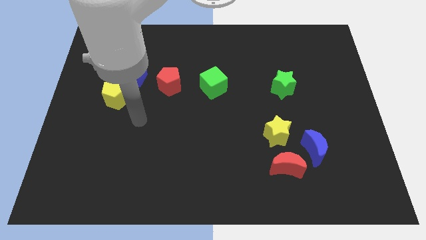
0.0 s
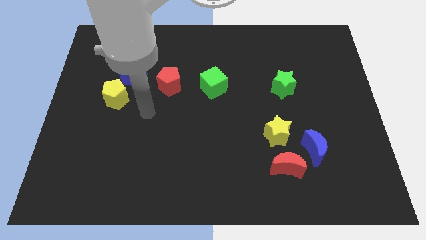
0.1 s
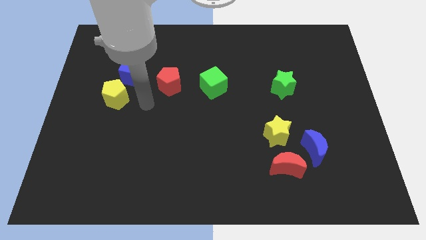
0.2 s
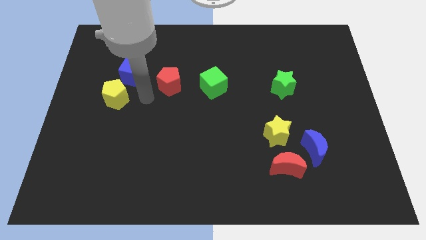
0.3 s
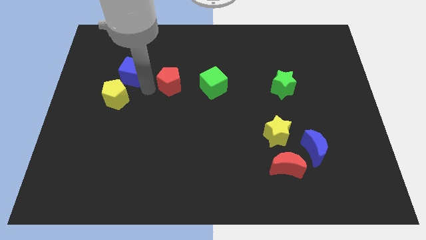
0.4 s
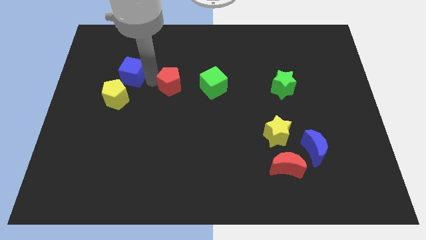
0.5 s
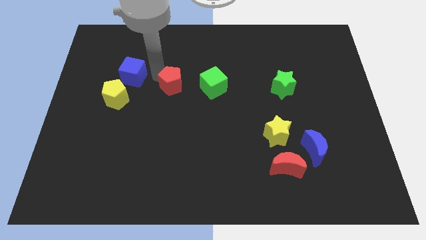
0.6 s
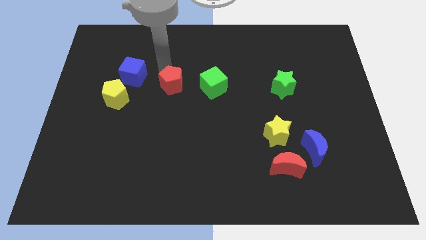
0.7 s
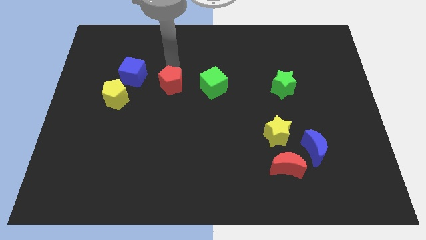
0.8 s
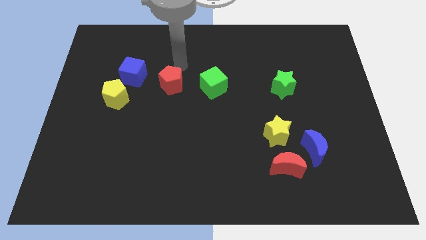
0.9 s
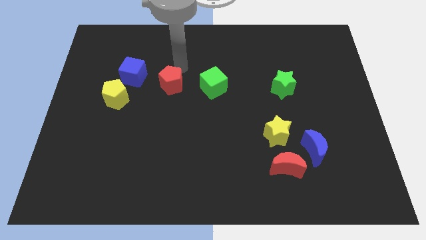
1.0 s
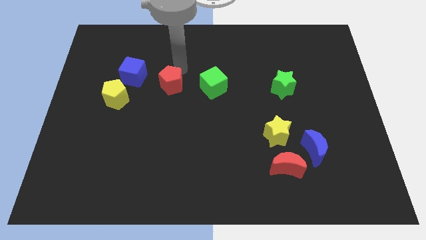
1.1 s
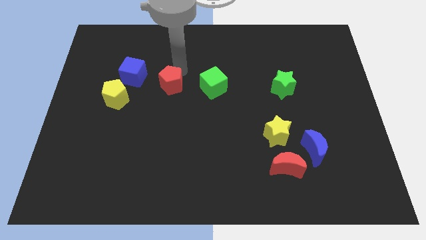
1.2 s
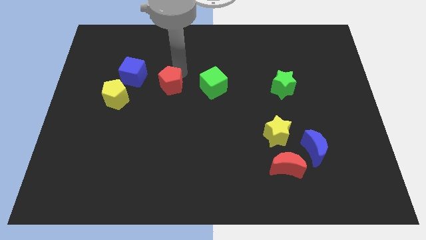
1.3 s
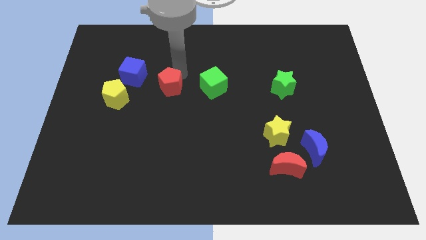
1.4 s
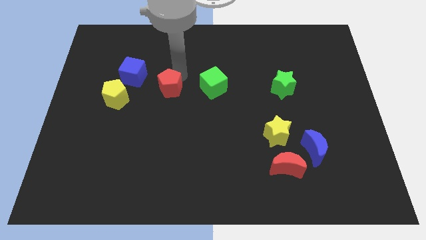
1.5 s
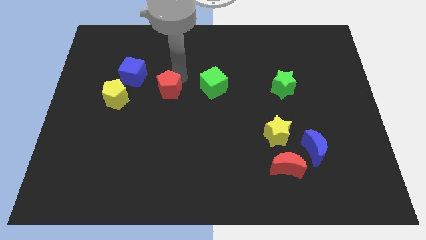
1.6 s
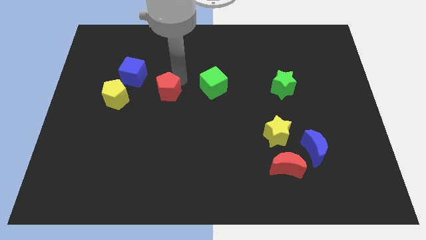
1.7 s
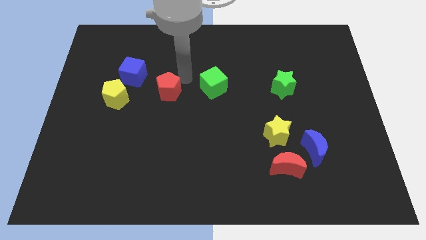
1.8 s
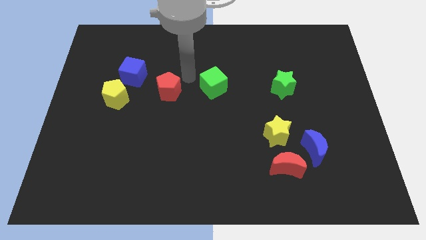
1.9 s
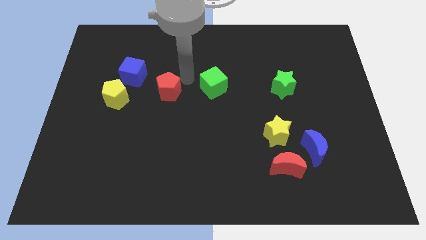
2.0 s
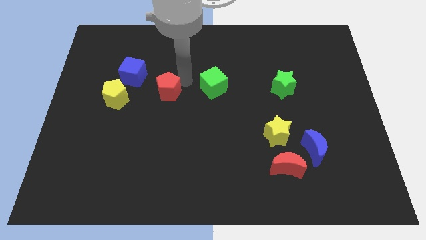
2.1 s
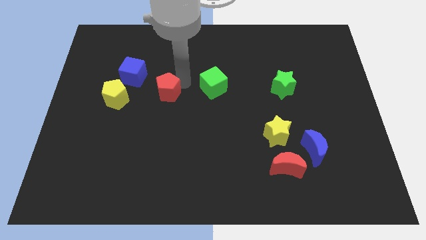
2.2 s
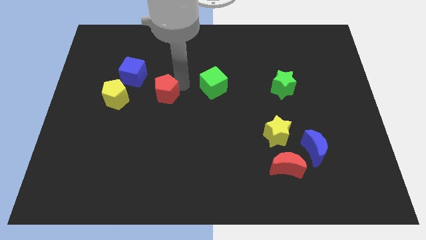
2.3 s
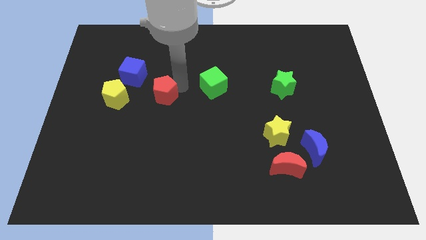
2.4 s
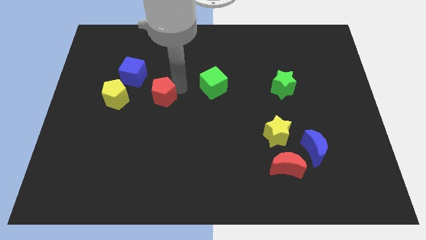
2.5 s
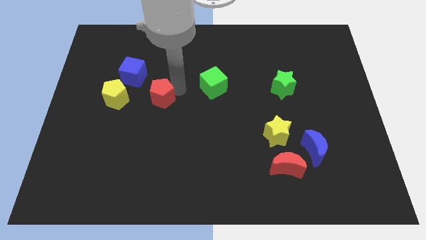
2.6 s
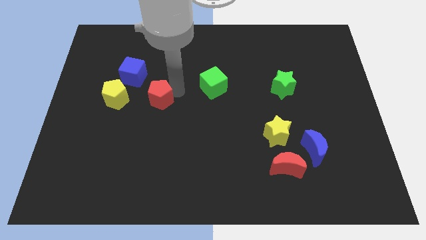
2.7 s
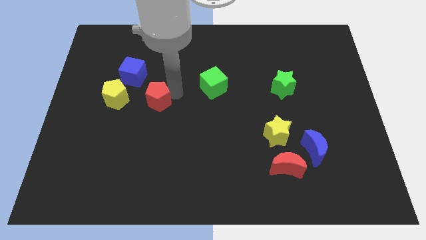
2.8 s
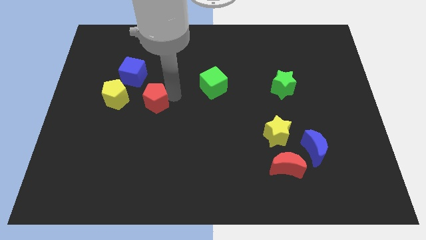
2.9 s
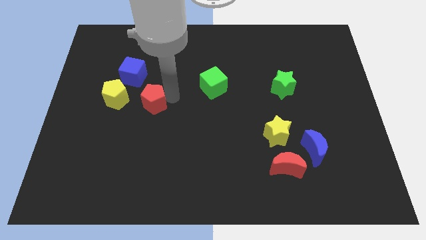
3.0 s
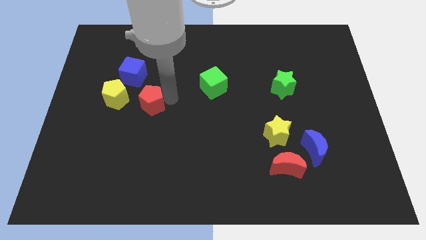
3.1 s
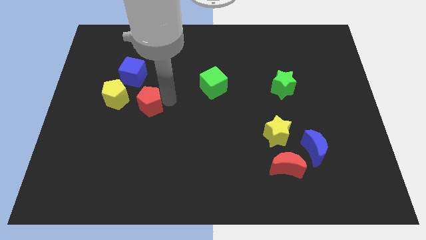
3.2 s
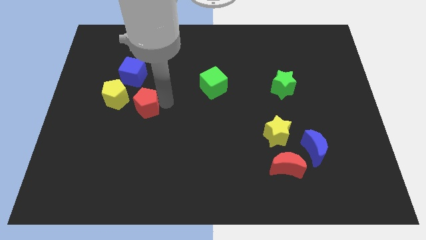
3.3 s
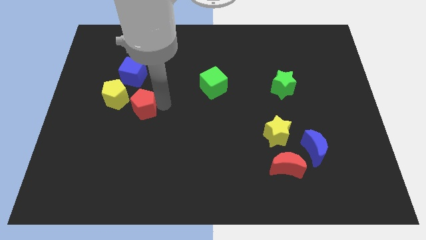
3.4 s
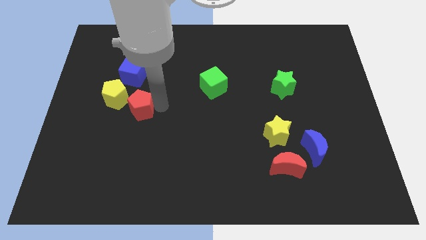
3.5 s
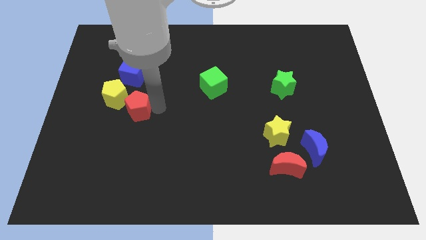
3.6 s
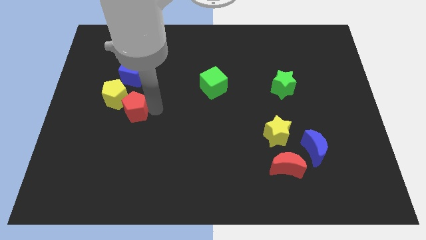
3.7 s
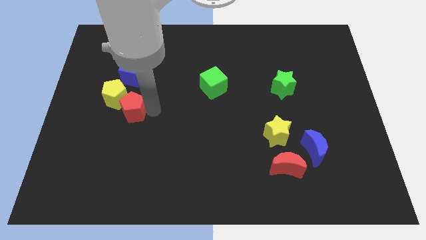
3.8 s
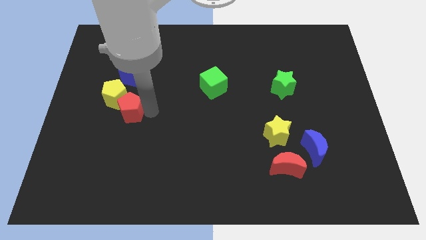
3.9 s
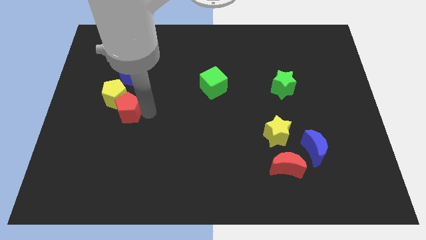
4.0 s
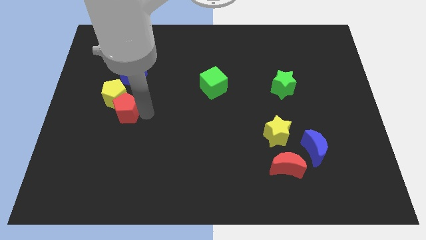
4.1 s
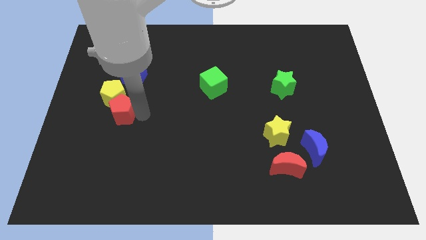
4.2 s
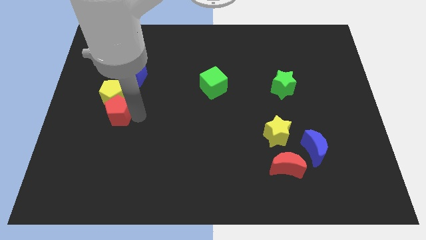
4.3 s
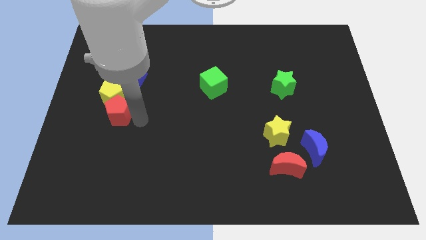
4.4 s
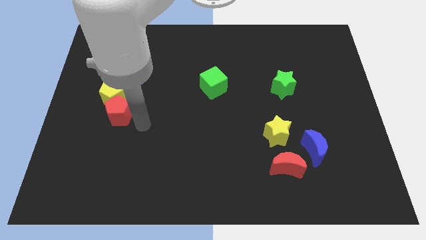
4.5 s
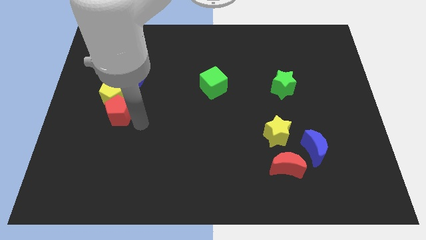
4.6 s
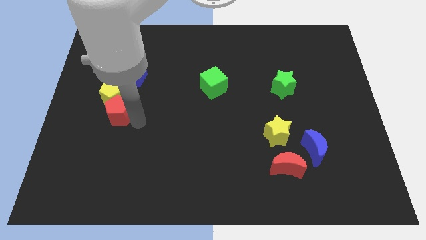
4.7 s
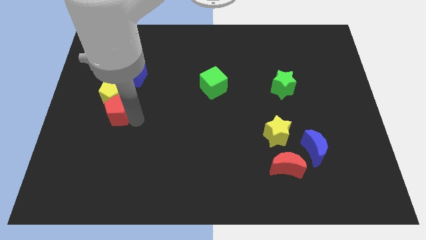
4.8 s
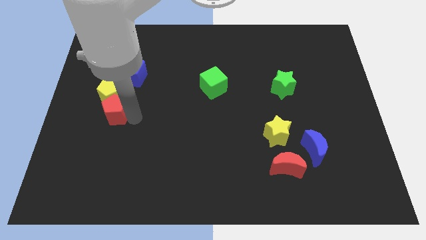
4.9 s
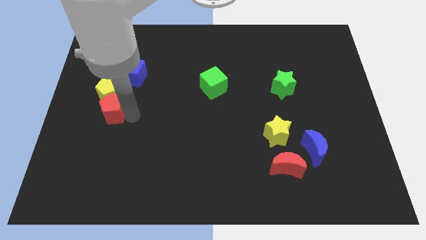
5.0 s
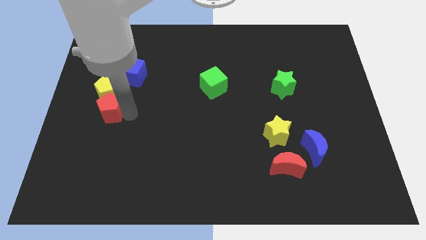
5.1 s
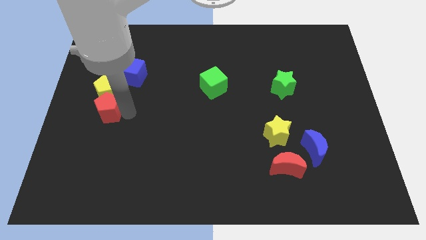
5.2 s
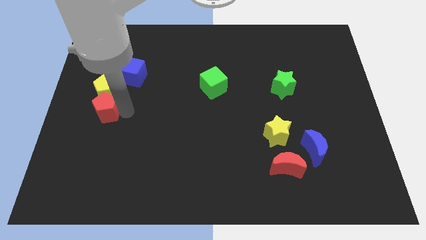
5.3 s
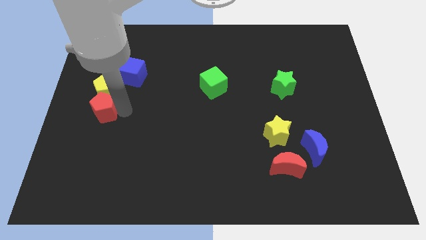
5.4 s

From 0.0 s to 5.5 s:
push the red pentagon to the left side

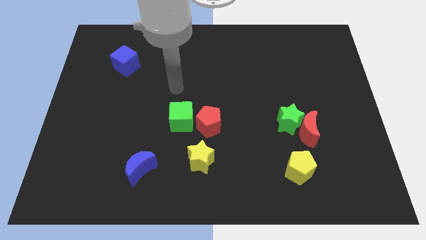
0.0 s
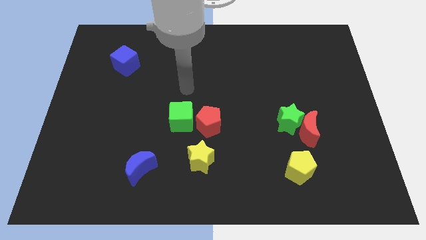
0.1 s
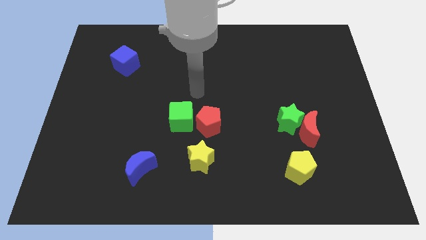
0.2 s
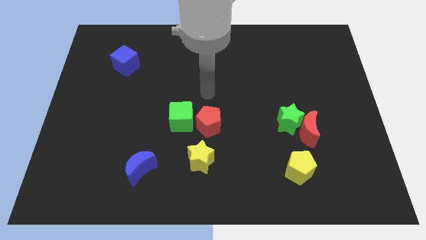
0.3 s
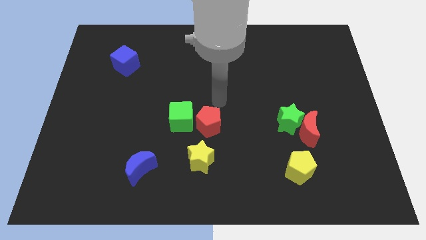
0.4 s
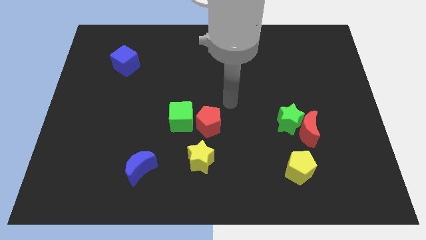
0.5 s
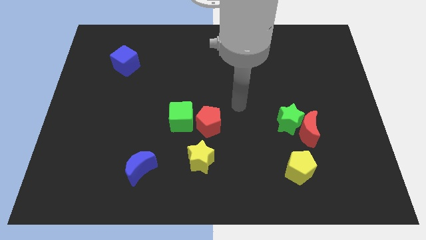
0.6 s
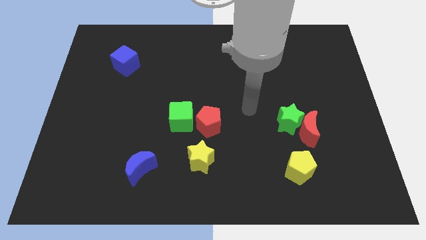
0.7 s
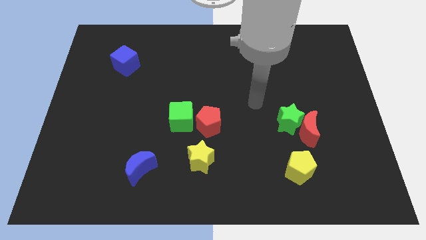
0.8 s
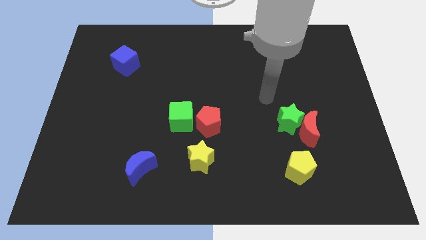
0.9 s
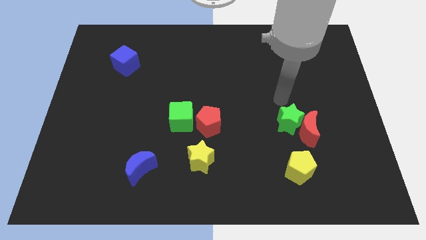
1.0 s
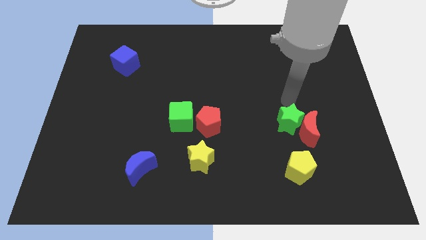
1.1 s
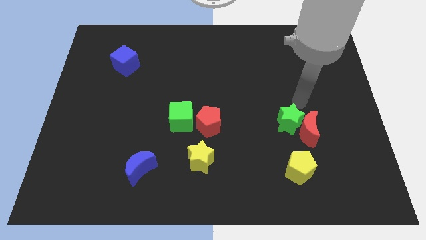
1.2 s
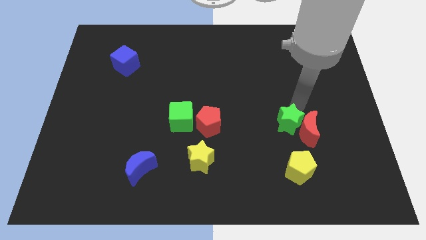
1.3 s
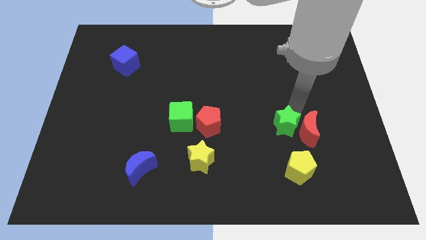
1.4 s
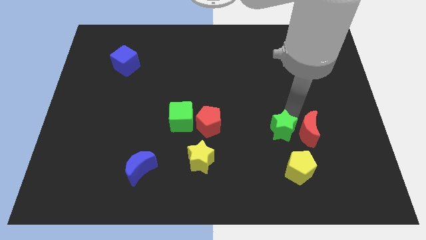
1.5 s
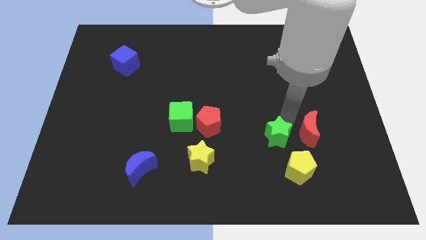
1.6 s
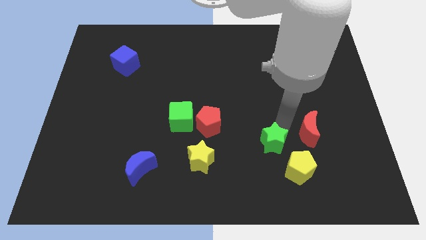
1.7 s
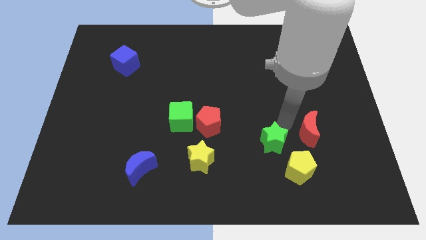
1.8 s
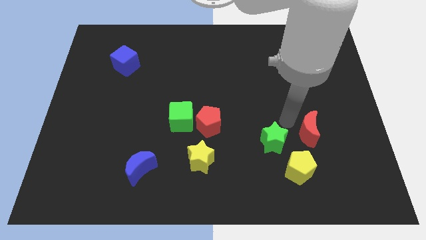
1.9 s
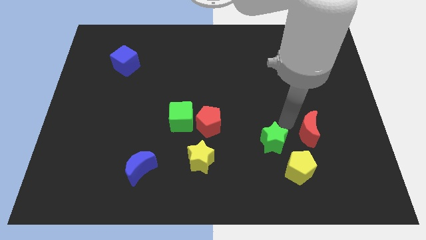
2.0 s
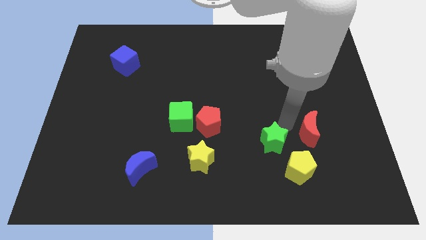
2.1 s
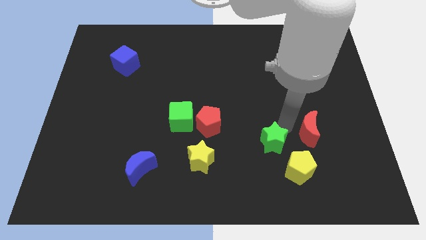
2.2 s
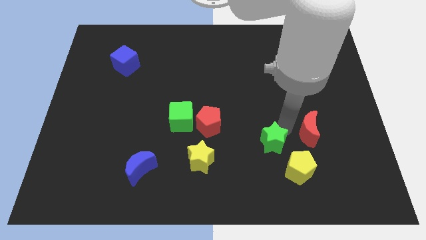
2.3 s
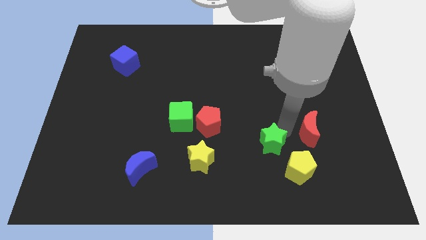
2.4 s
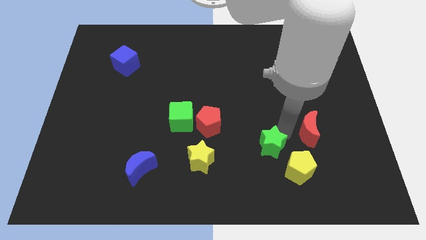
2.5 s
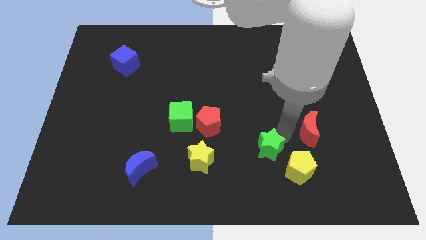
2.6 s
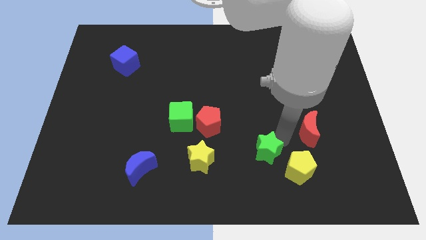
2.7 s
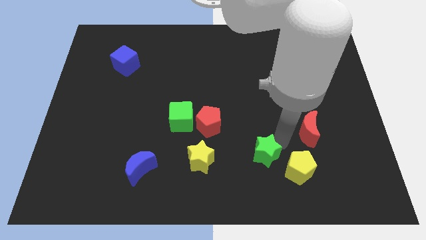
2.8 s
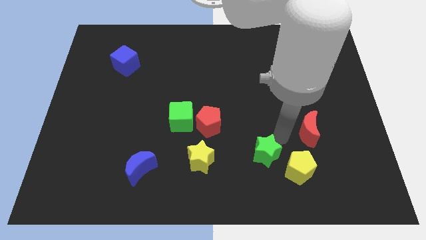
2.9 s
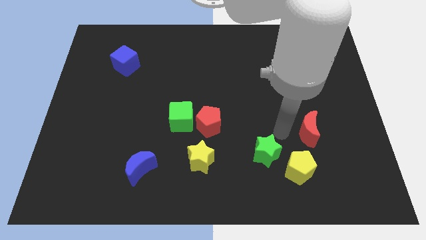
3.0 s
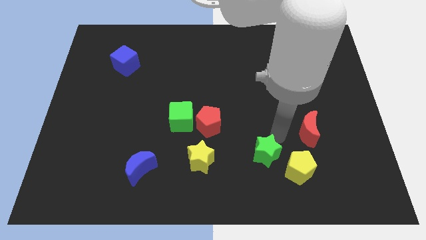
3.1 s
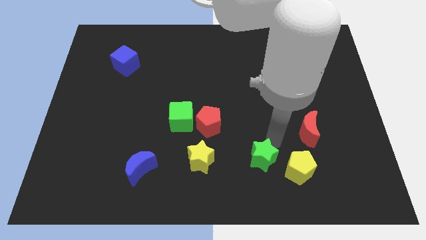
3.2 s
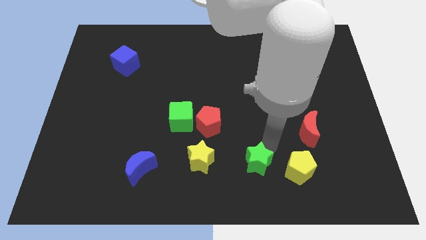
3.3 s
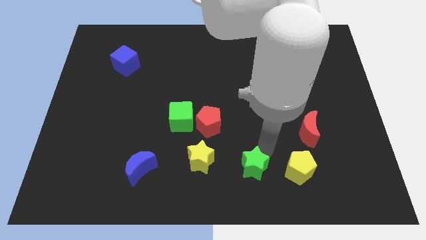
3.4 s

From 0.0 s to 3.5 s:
move the green star to the bottom side
